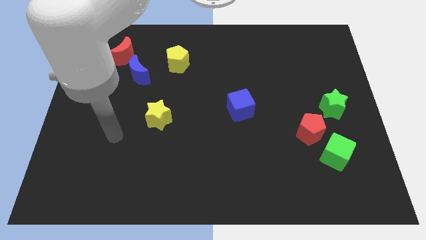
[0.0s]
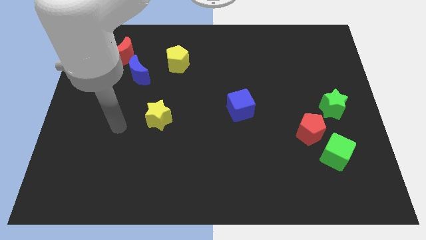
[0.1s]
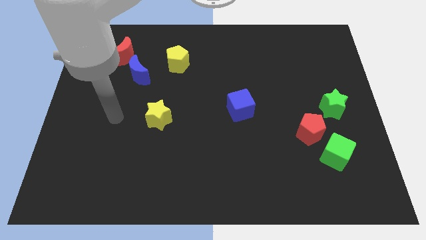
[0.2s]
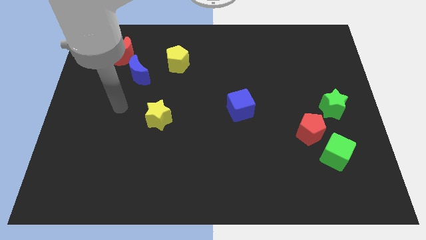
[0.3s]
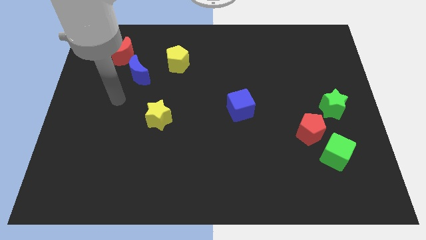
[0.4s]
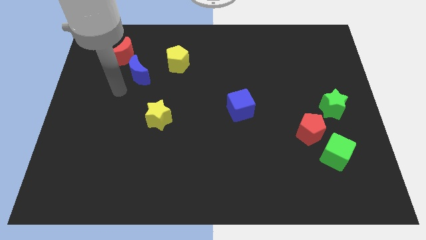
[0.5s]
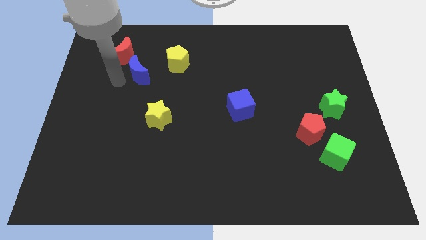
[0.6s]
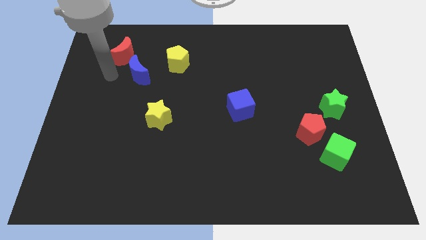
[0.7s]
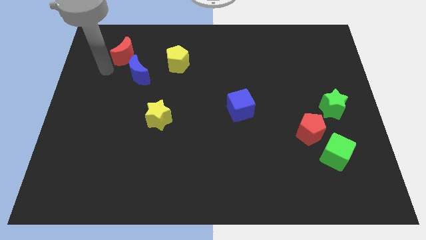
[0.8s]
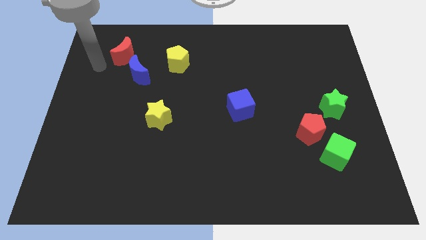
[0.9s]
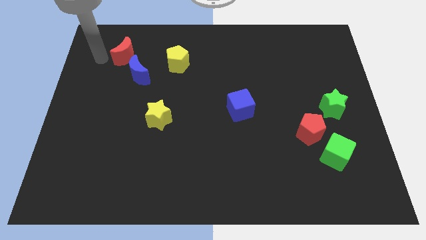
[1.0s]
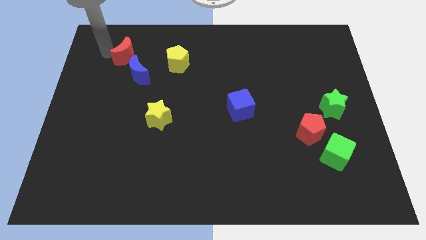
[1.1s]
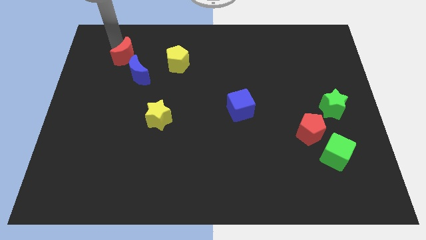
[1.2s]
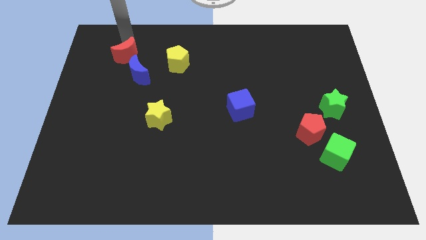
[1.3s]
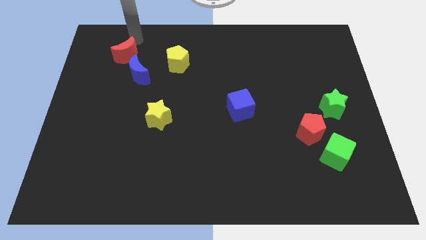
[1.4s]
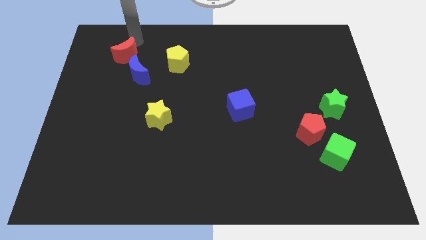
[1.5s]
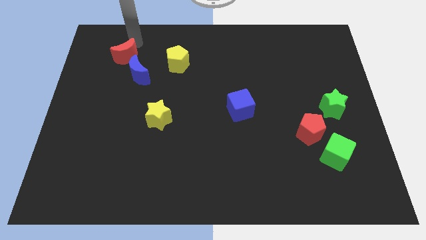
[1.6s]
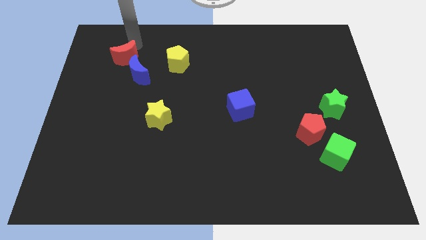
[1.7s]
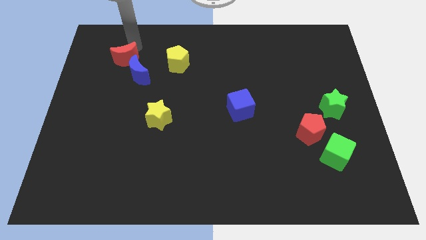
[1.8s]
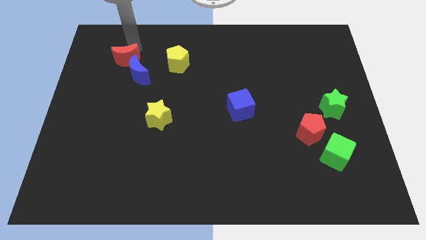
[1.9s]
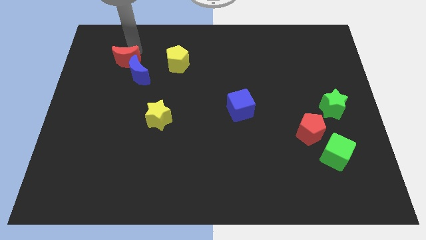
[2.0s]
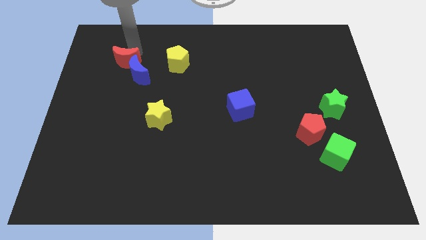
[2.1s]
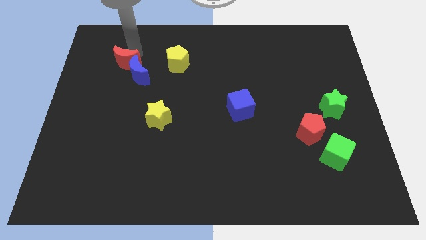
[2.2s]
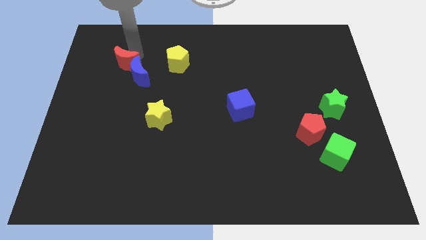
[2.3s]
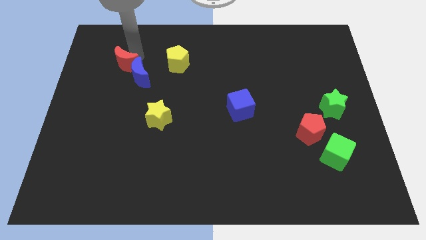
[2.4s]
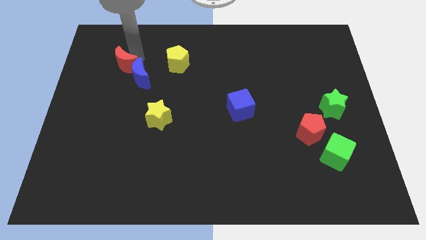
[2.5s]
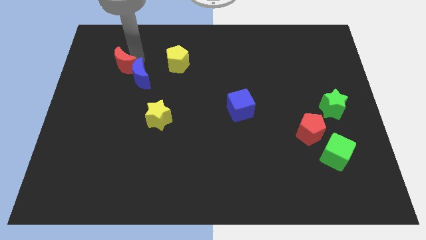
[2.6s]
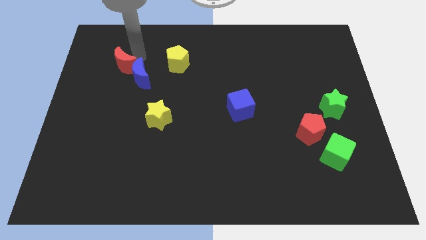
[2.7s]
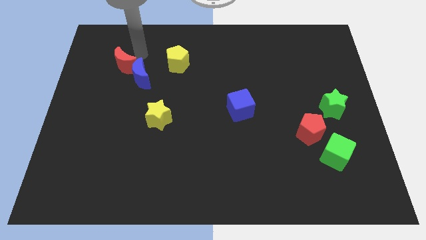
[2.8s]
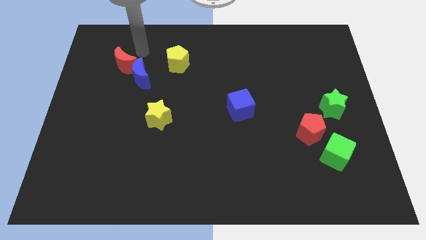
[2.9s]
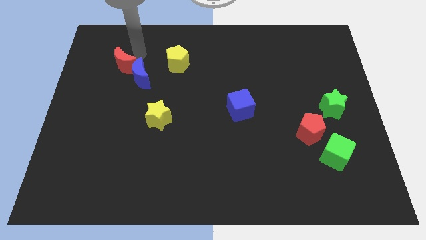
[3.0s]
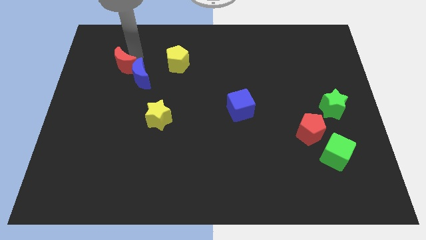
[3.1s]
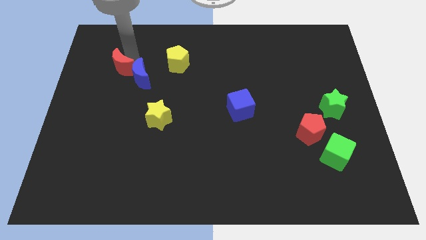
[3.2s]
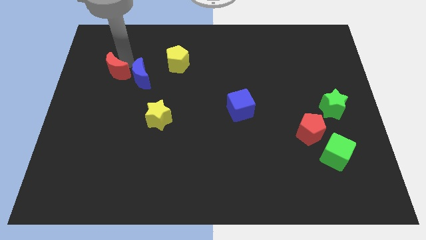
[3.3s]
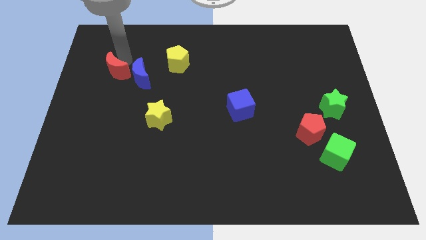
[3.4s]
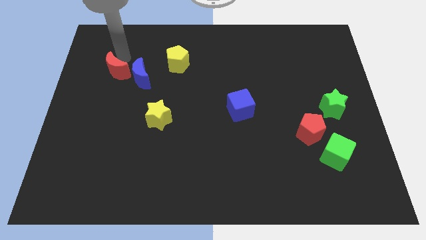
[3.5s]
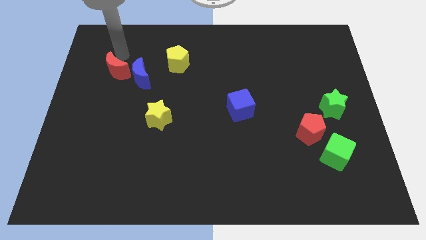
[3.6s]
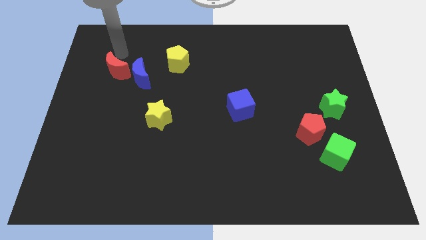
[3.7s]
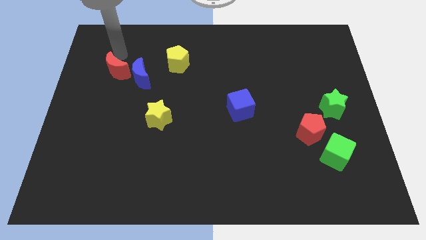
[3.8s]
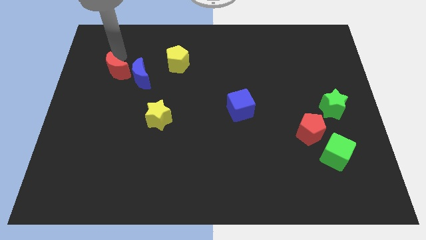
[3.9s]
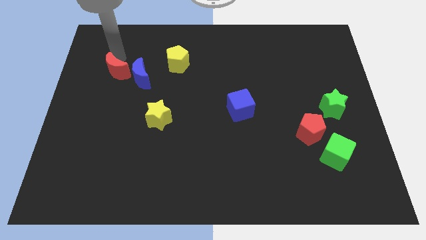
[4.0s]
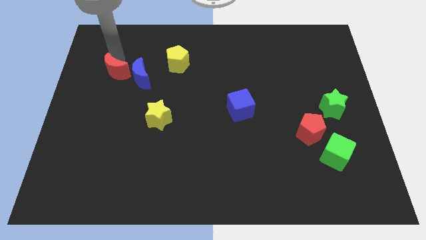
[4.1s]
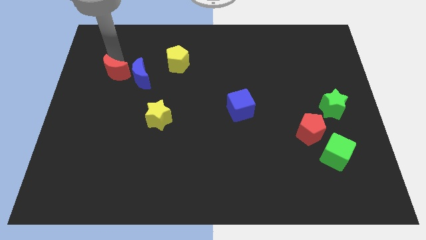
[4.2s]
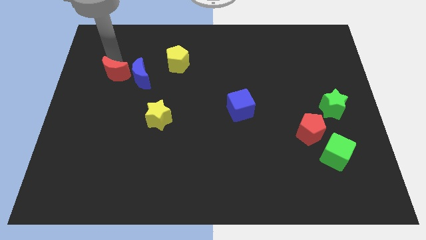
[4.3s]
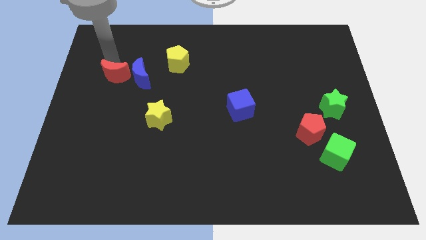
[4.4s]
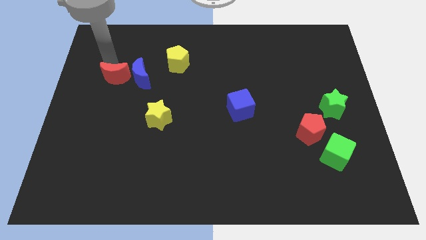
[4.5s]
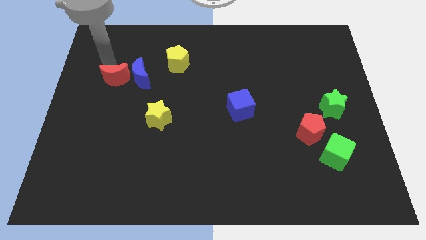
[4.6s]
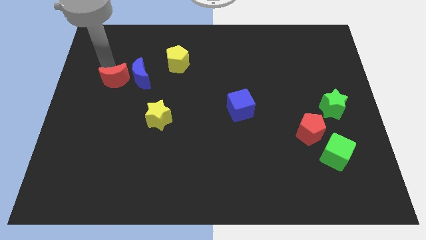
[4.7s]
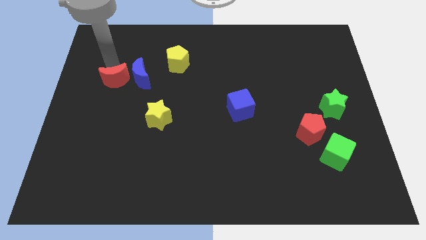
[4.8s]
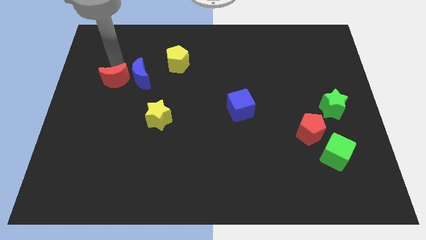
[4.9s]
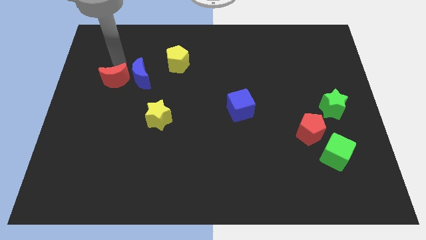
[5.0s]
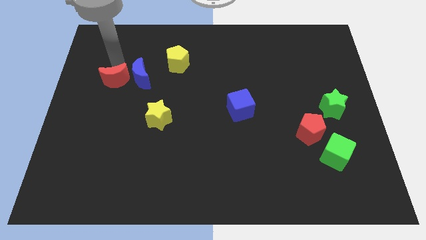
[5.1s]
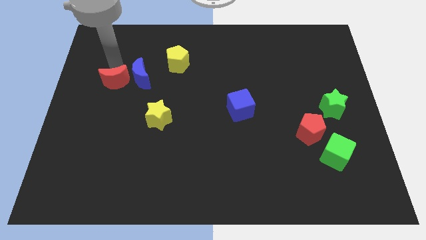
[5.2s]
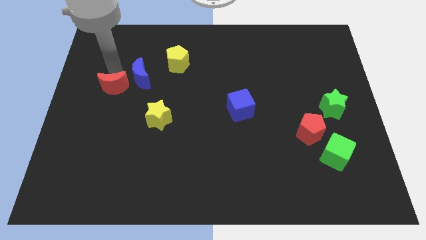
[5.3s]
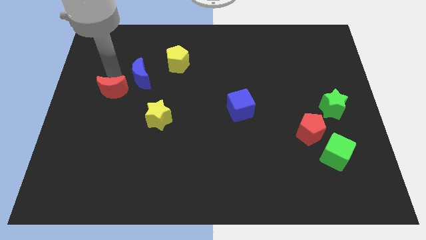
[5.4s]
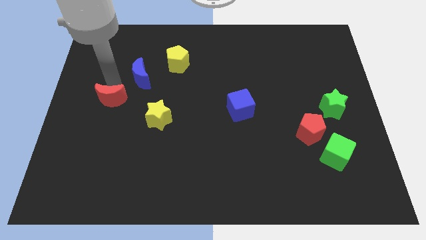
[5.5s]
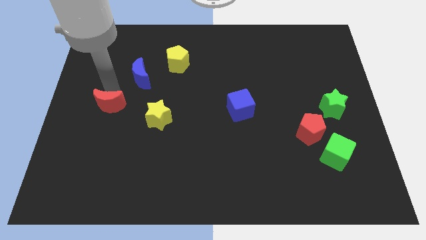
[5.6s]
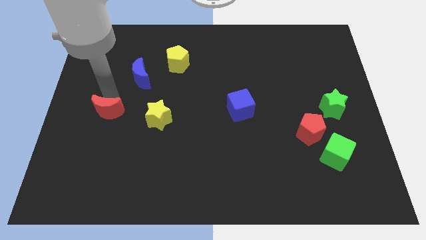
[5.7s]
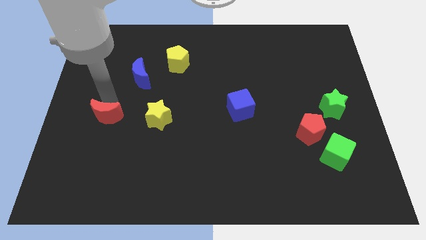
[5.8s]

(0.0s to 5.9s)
slide the red moon downwards

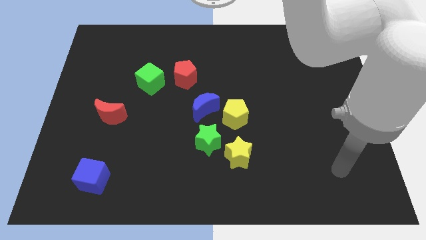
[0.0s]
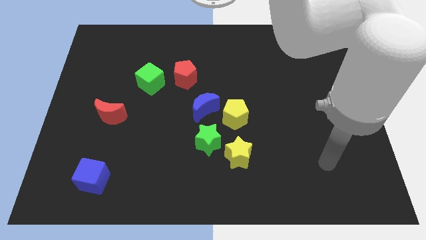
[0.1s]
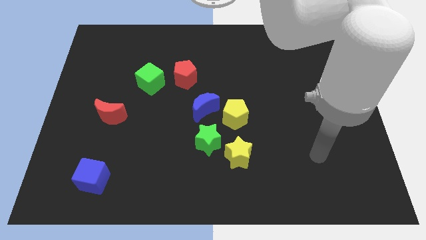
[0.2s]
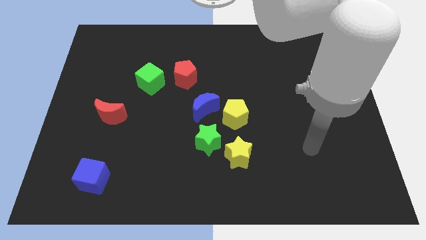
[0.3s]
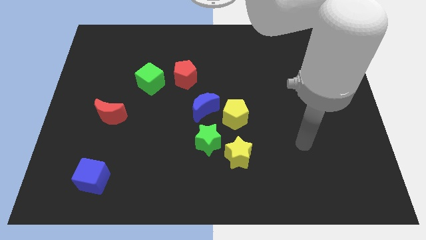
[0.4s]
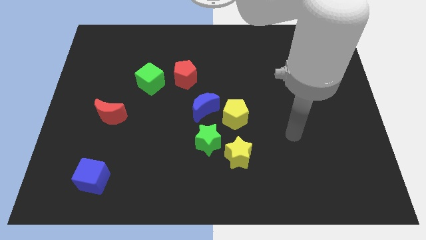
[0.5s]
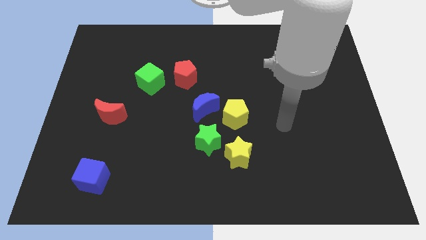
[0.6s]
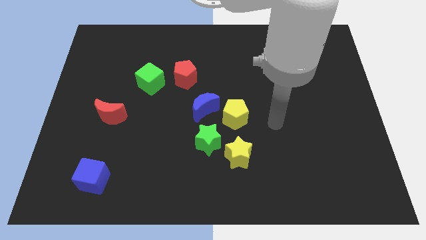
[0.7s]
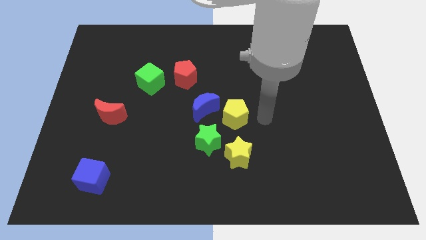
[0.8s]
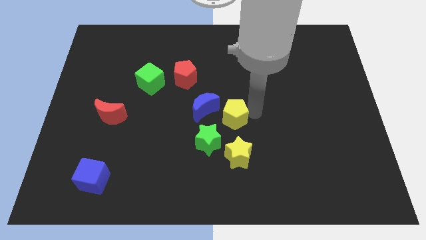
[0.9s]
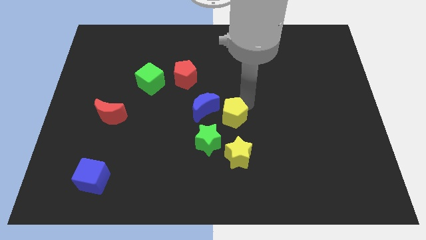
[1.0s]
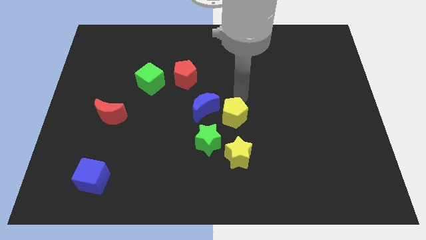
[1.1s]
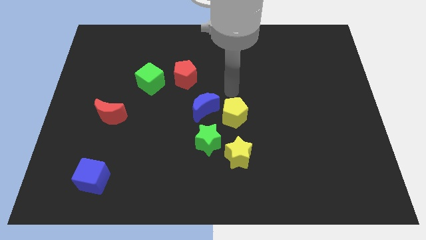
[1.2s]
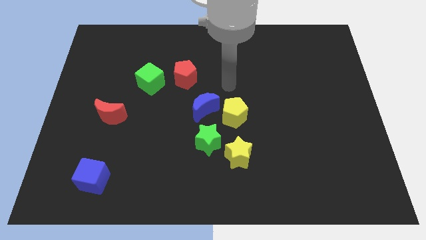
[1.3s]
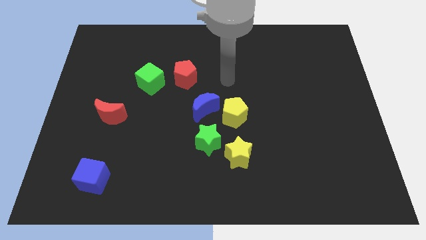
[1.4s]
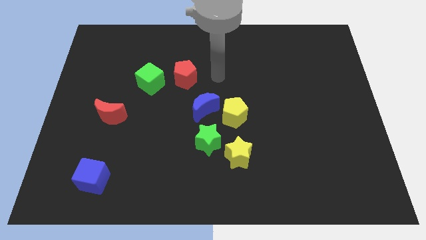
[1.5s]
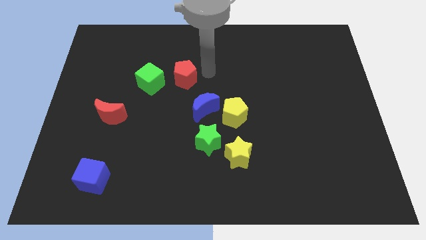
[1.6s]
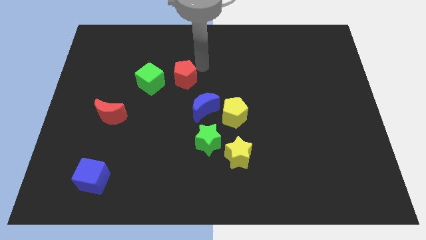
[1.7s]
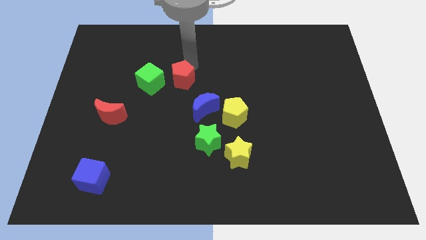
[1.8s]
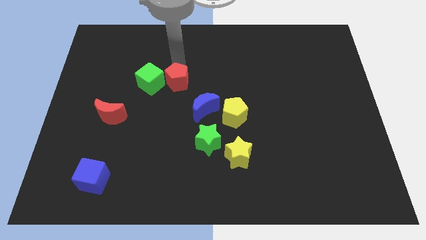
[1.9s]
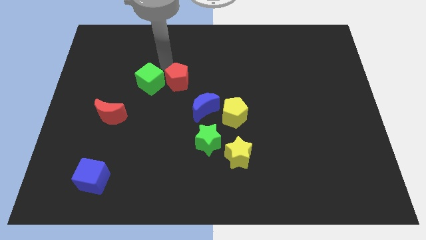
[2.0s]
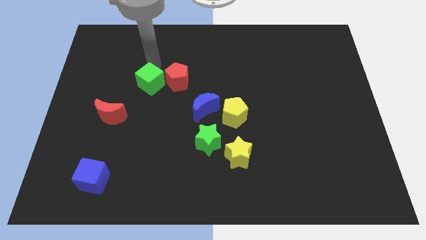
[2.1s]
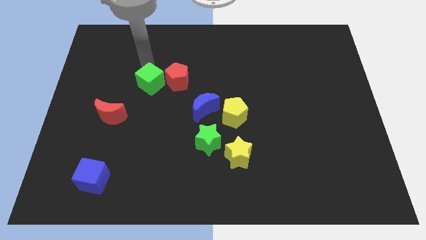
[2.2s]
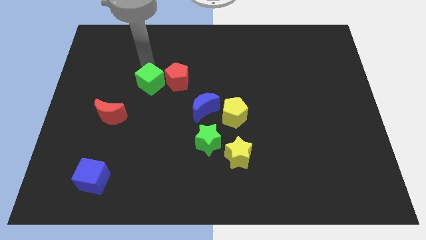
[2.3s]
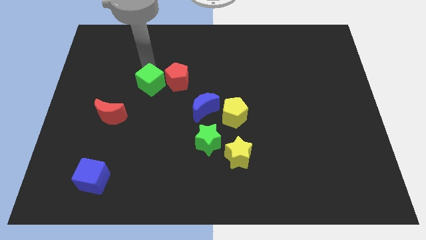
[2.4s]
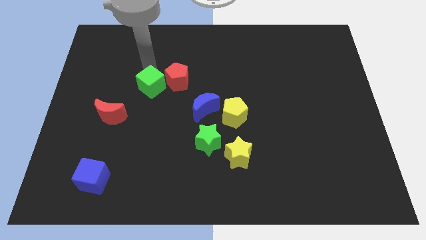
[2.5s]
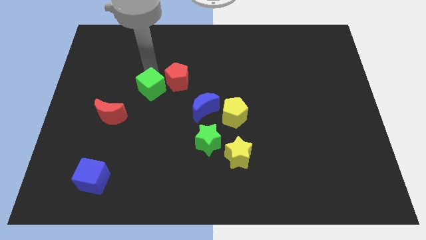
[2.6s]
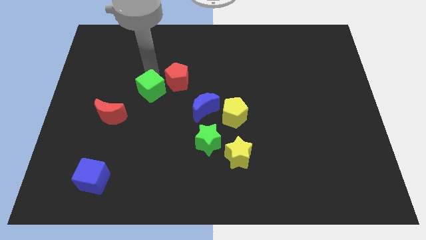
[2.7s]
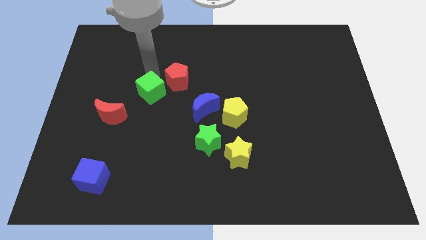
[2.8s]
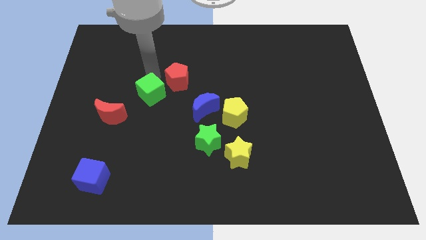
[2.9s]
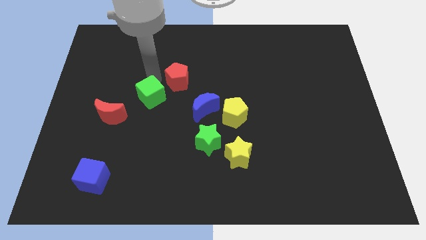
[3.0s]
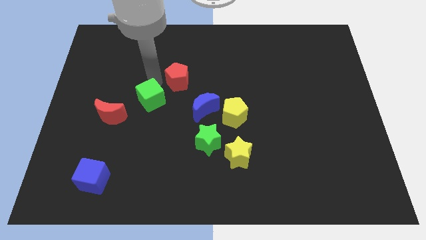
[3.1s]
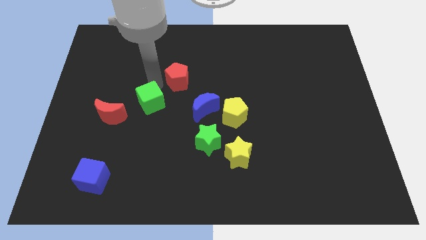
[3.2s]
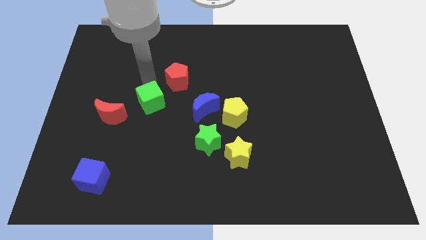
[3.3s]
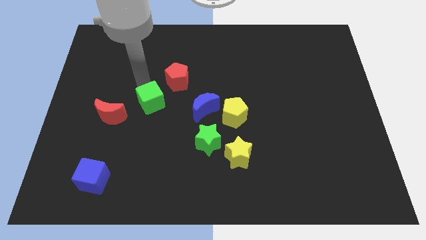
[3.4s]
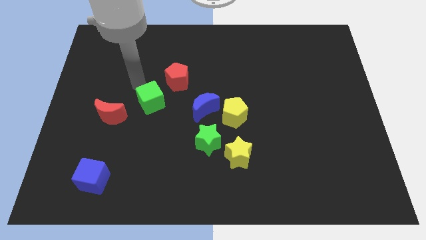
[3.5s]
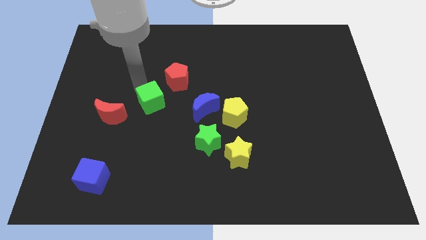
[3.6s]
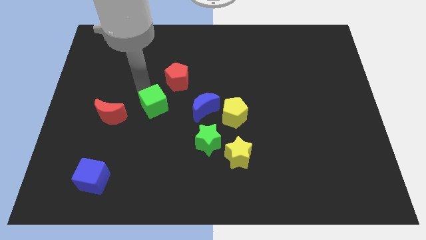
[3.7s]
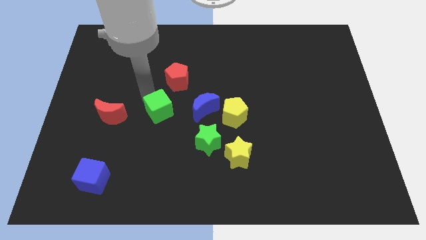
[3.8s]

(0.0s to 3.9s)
slightly move the green cube downwards and to the right diagonally
